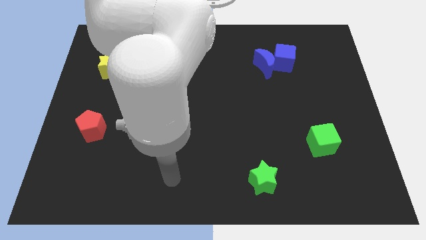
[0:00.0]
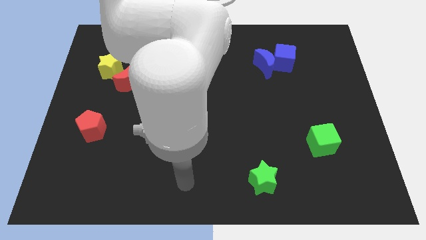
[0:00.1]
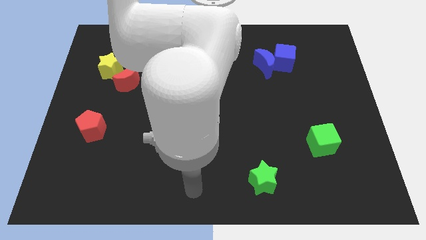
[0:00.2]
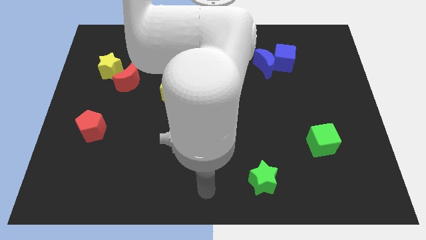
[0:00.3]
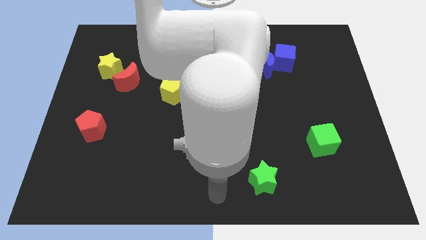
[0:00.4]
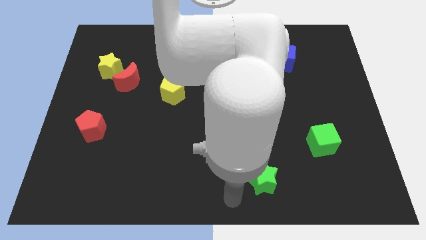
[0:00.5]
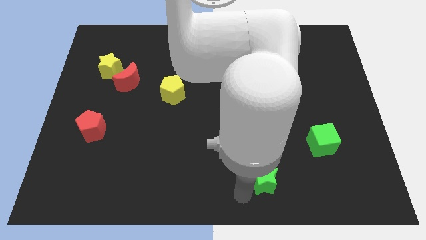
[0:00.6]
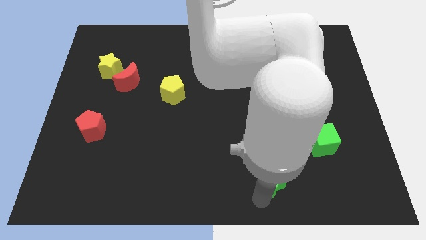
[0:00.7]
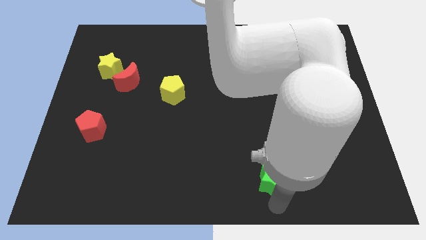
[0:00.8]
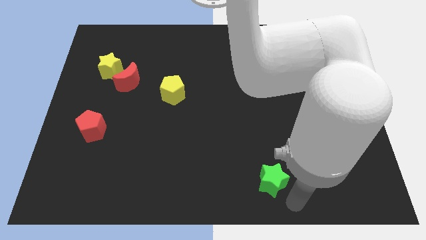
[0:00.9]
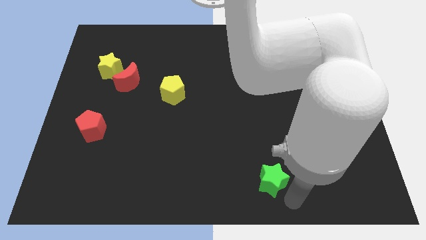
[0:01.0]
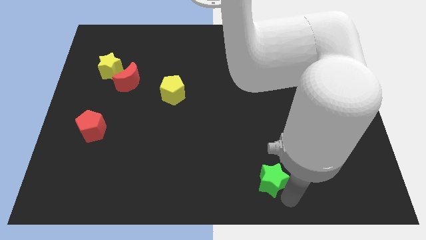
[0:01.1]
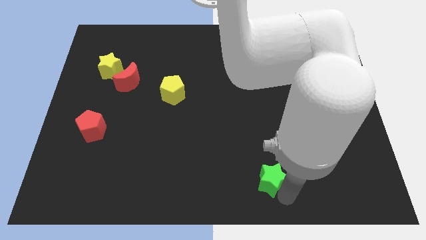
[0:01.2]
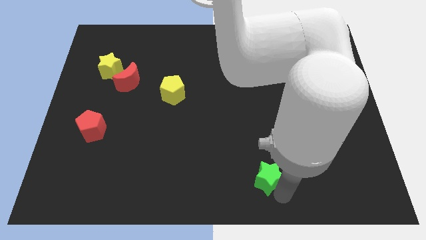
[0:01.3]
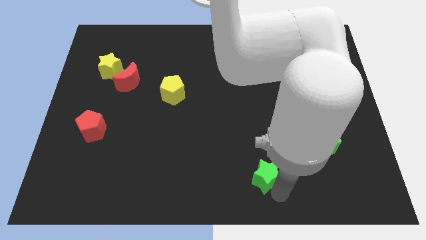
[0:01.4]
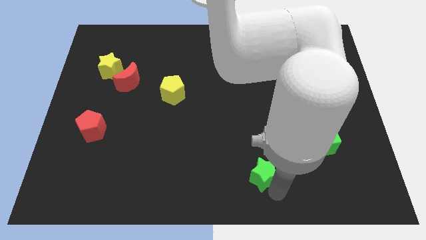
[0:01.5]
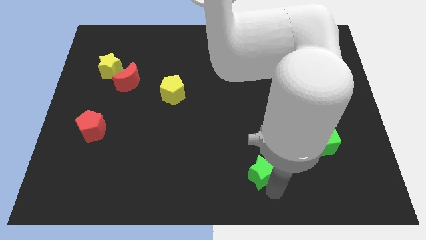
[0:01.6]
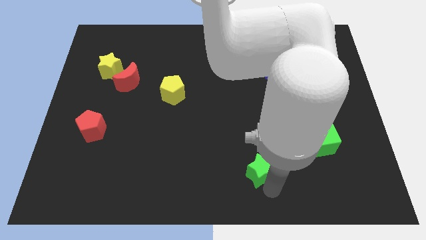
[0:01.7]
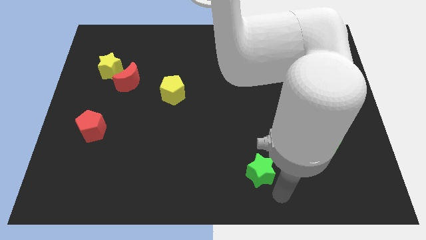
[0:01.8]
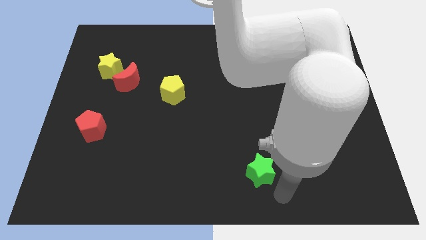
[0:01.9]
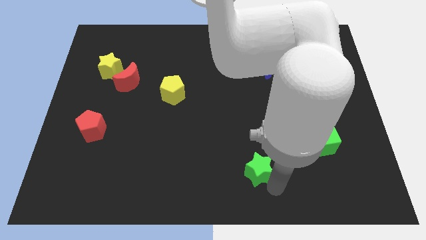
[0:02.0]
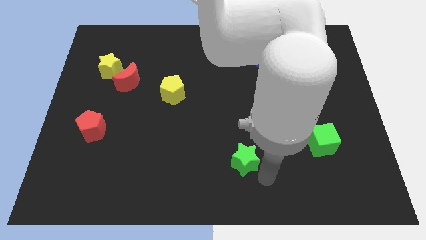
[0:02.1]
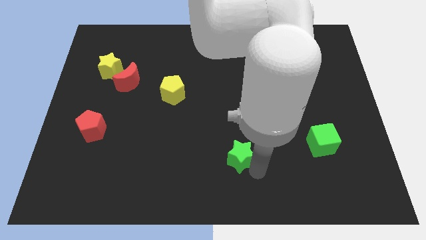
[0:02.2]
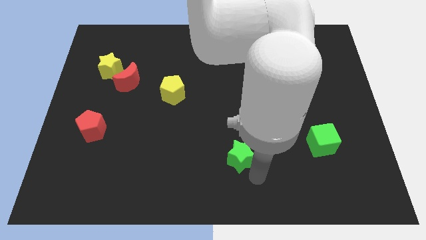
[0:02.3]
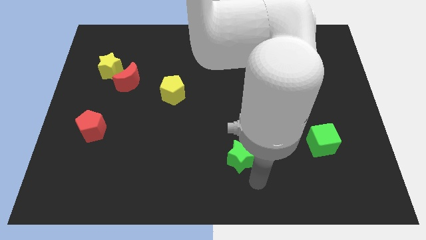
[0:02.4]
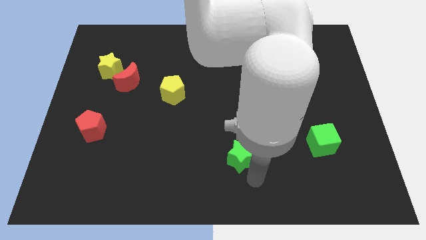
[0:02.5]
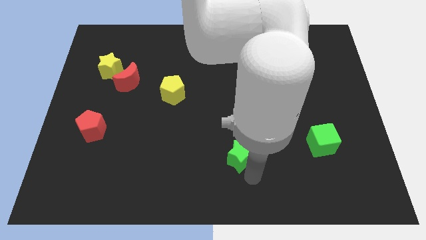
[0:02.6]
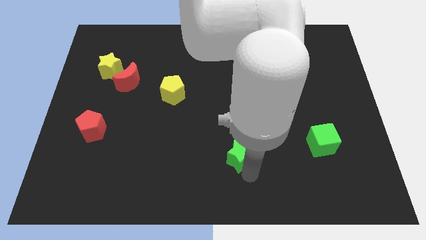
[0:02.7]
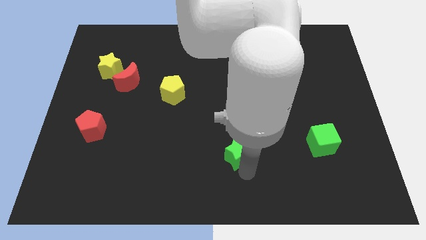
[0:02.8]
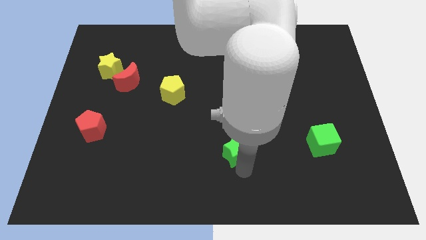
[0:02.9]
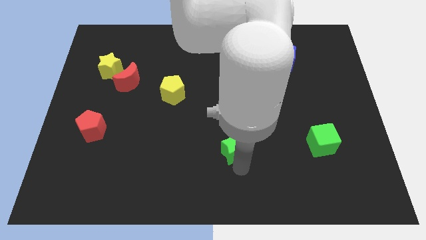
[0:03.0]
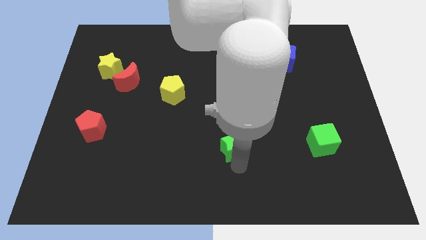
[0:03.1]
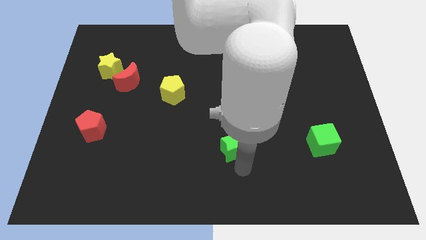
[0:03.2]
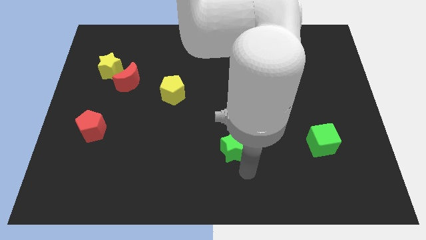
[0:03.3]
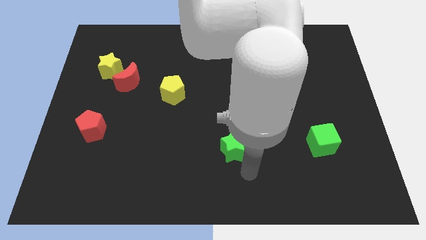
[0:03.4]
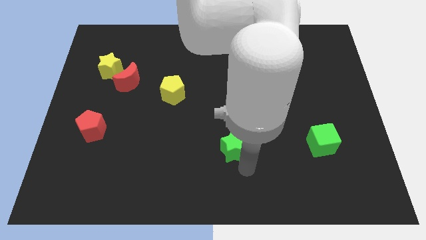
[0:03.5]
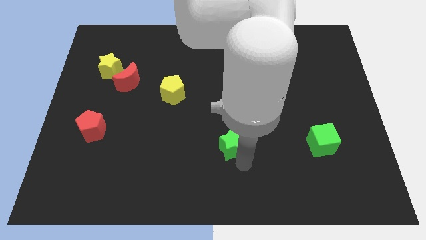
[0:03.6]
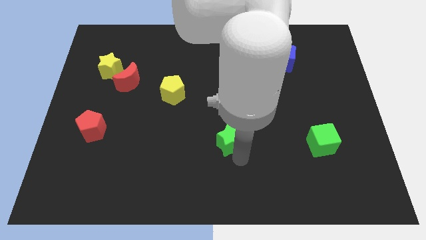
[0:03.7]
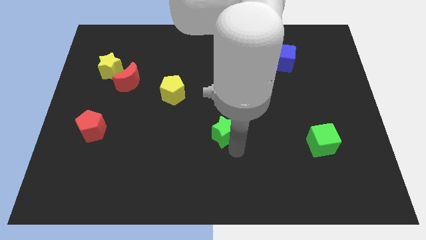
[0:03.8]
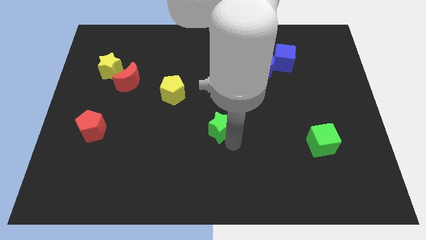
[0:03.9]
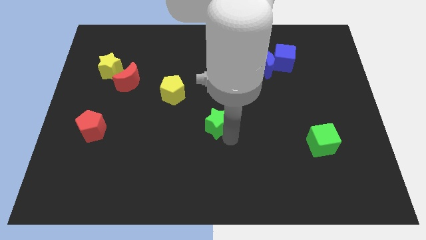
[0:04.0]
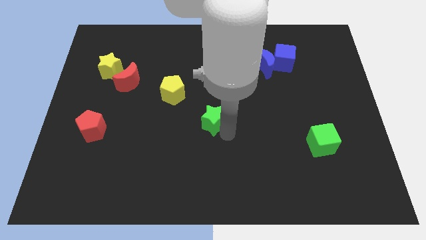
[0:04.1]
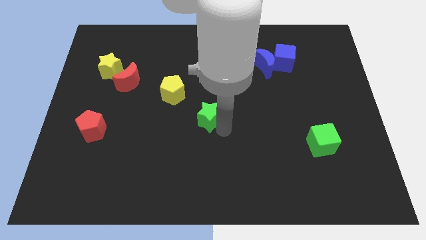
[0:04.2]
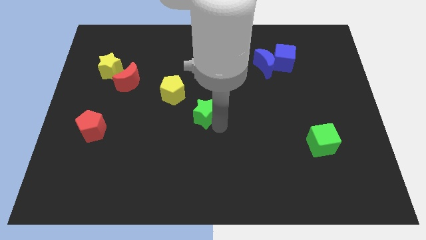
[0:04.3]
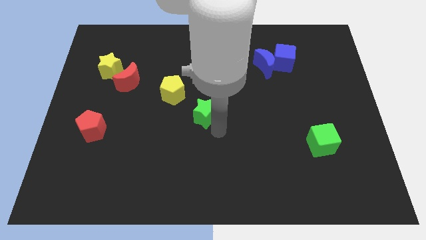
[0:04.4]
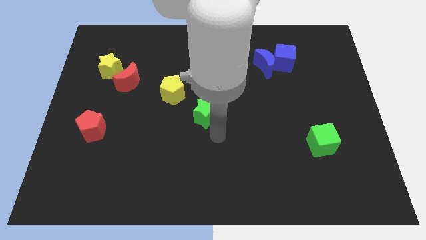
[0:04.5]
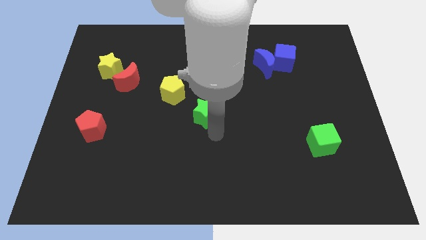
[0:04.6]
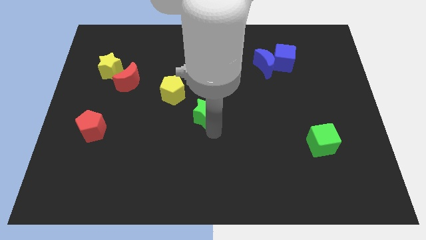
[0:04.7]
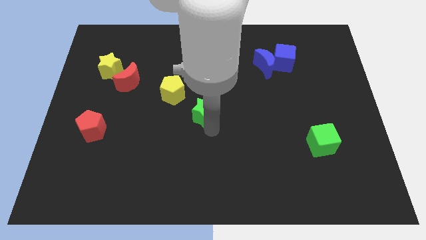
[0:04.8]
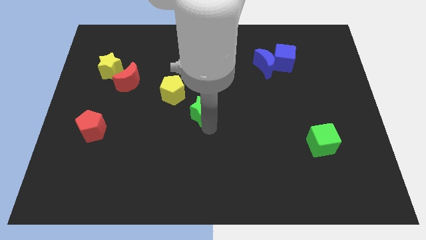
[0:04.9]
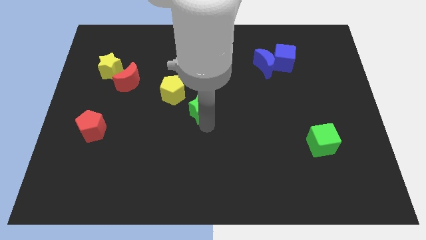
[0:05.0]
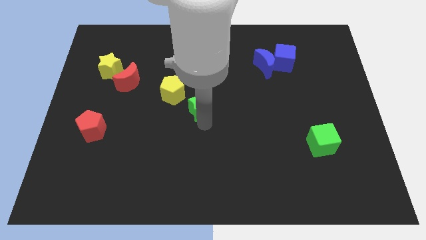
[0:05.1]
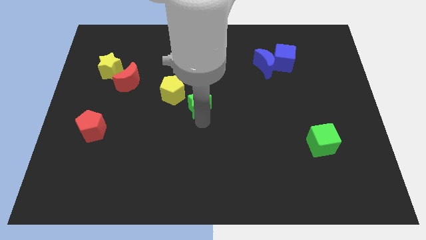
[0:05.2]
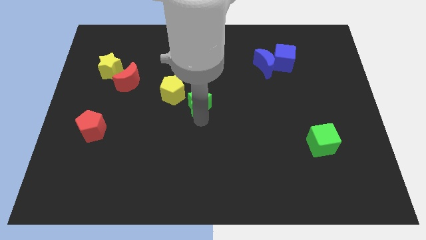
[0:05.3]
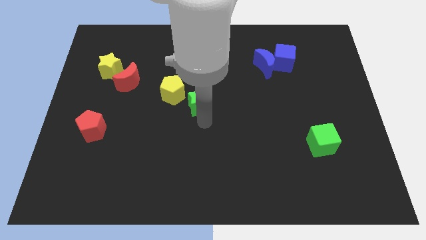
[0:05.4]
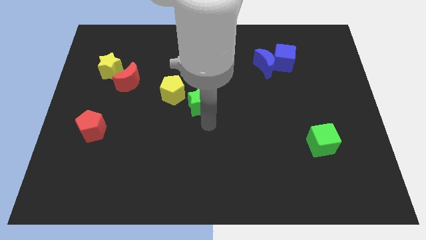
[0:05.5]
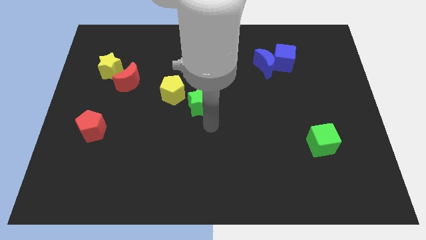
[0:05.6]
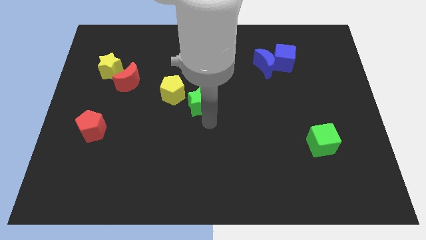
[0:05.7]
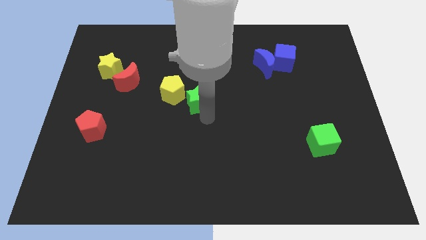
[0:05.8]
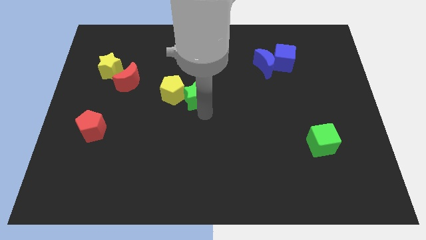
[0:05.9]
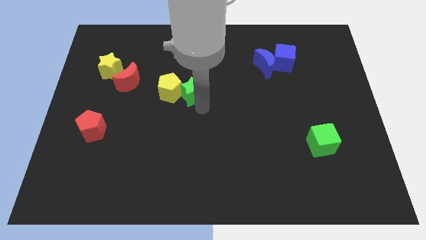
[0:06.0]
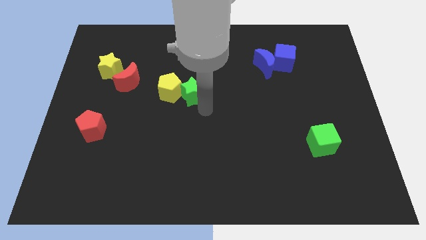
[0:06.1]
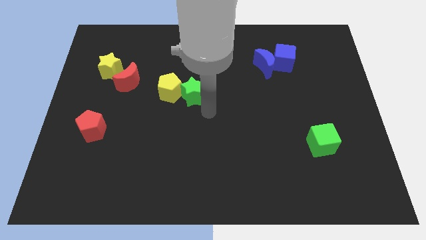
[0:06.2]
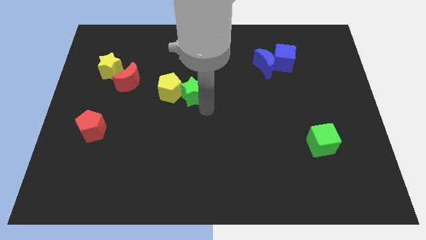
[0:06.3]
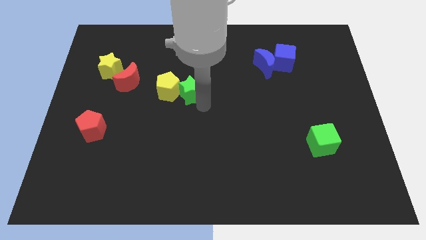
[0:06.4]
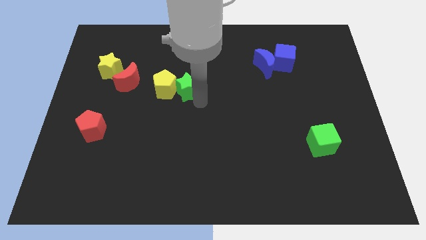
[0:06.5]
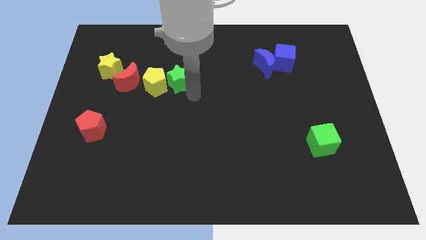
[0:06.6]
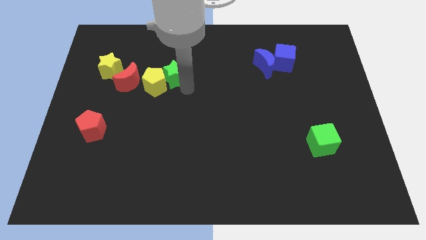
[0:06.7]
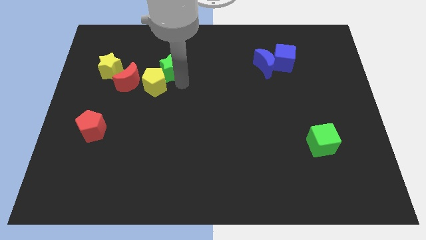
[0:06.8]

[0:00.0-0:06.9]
move the green star to the top of the yellow pentagon
